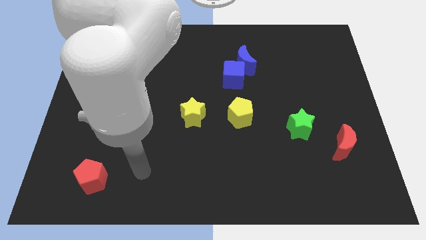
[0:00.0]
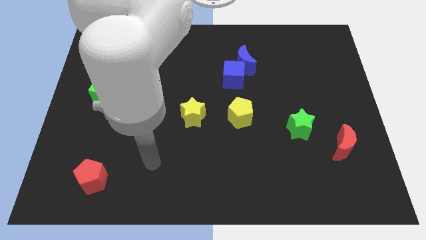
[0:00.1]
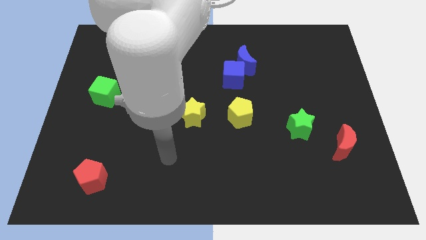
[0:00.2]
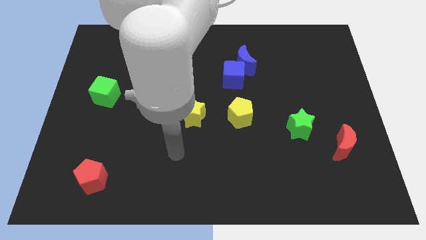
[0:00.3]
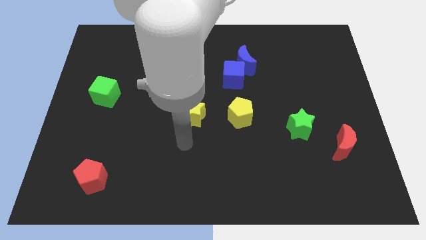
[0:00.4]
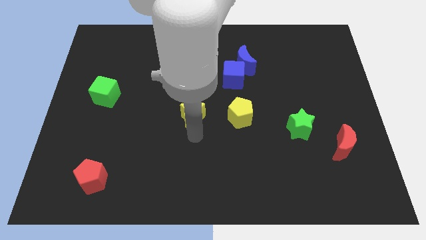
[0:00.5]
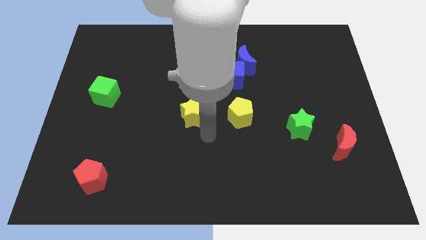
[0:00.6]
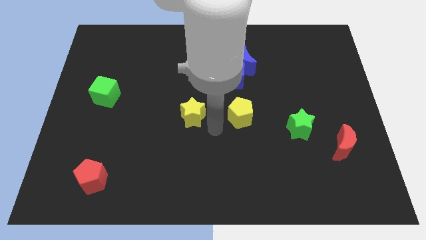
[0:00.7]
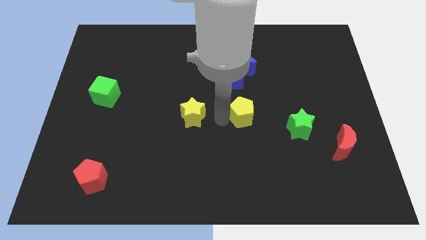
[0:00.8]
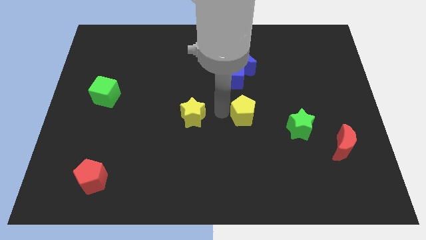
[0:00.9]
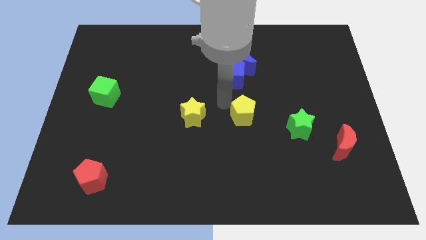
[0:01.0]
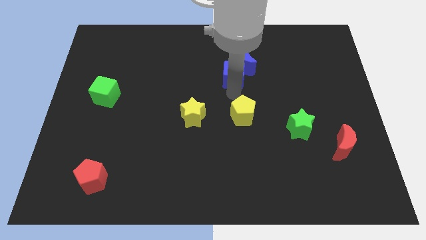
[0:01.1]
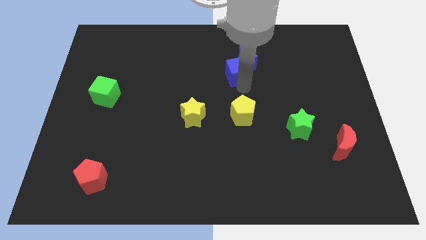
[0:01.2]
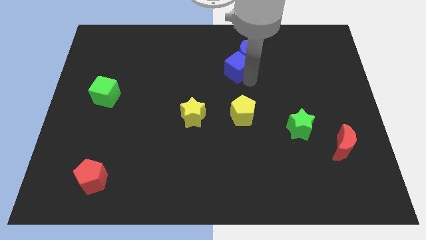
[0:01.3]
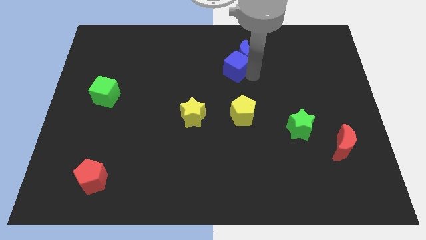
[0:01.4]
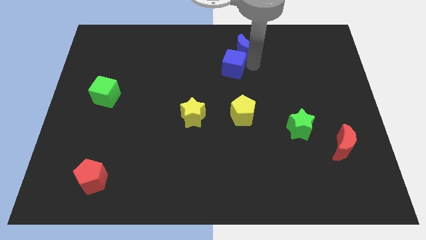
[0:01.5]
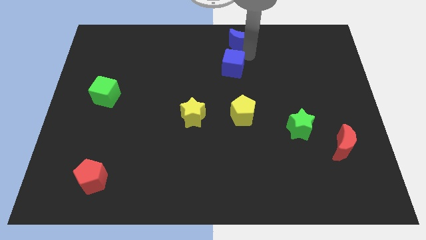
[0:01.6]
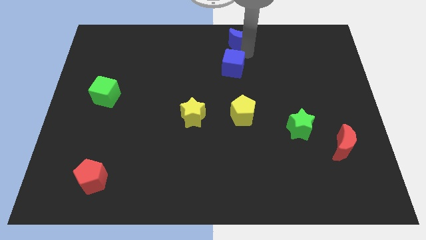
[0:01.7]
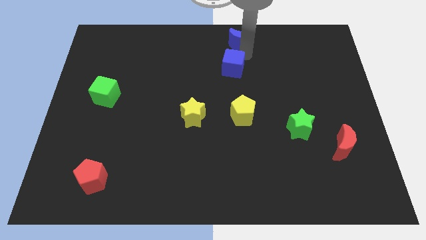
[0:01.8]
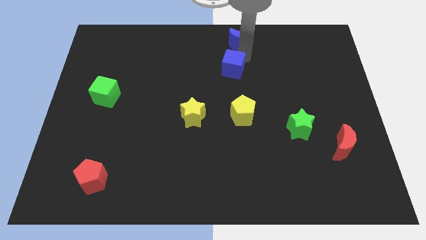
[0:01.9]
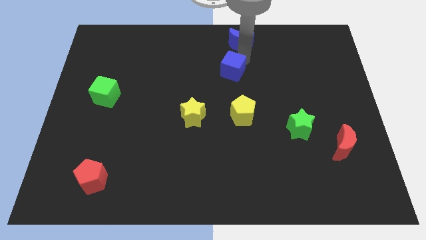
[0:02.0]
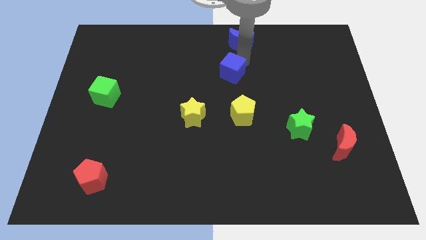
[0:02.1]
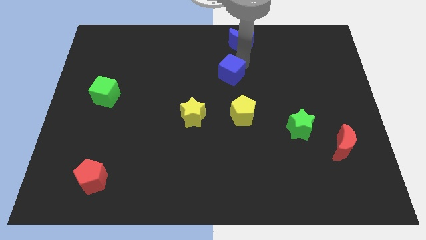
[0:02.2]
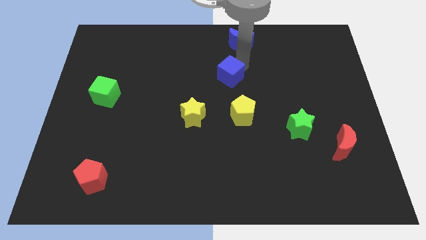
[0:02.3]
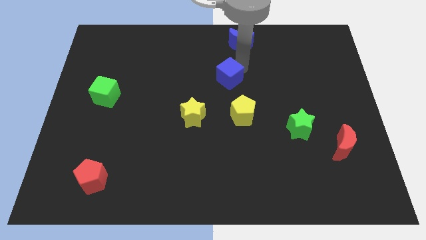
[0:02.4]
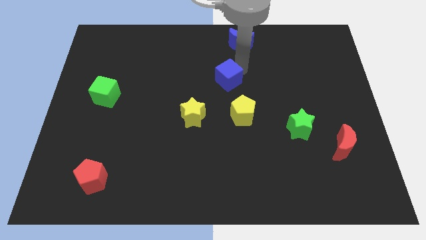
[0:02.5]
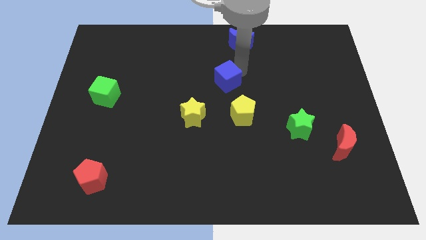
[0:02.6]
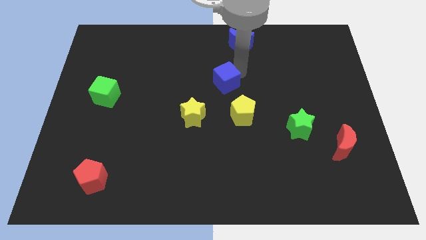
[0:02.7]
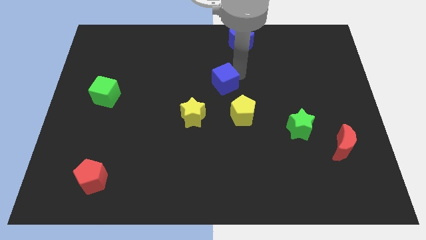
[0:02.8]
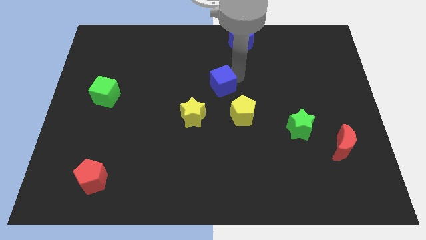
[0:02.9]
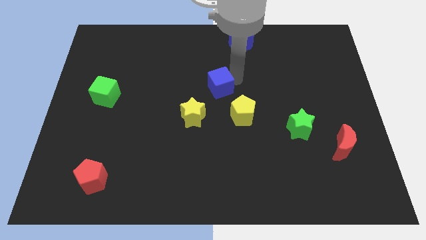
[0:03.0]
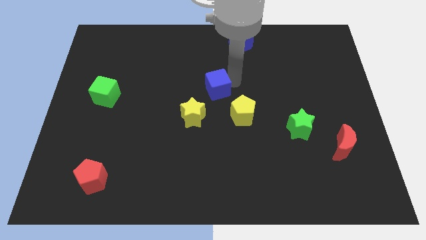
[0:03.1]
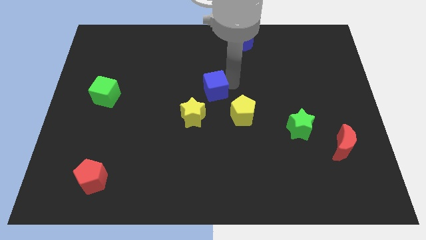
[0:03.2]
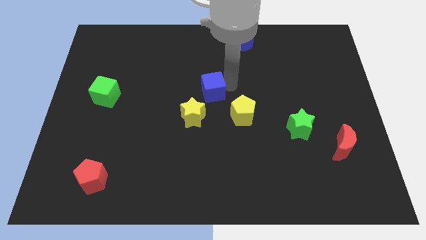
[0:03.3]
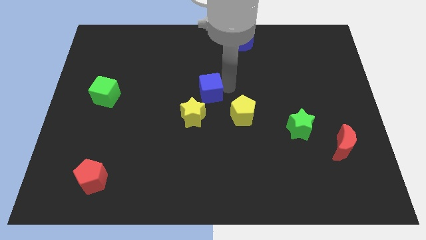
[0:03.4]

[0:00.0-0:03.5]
push the blue cube slightly downwards and left

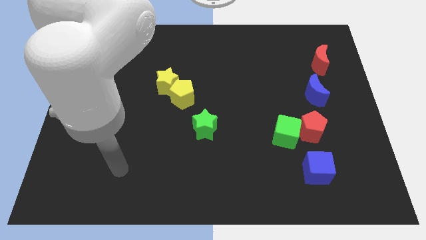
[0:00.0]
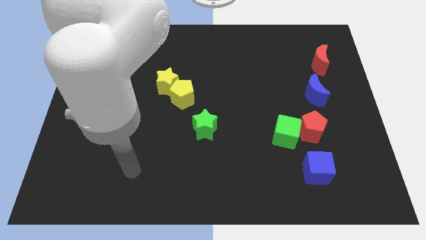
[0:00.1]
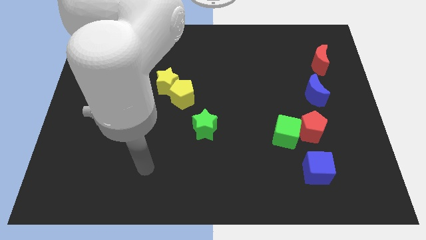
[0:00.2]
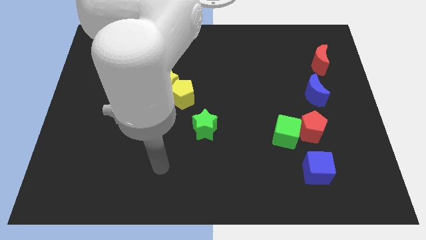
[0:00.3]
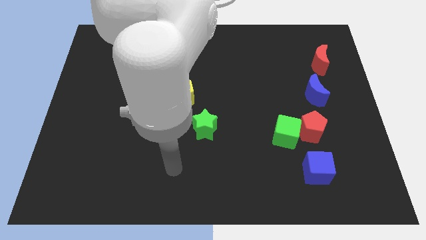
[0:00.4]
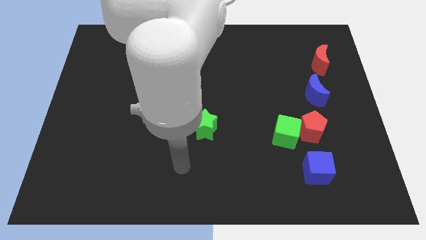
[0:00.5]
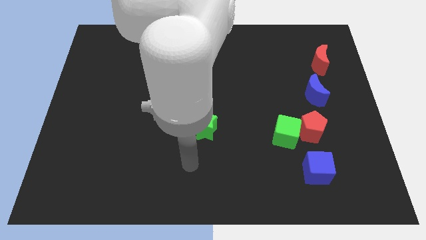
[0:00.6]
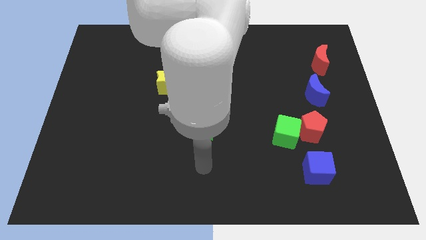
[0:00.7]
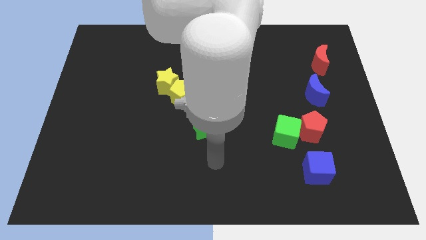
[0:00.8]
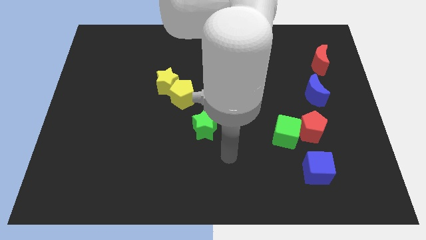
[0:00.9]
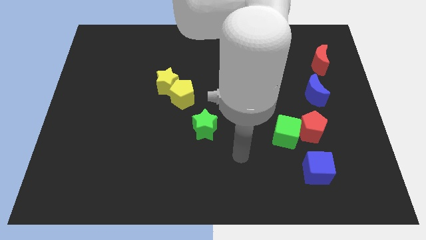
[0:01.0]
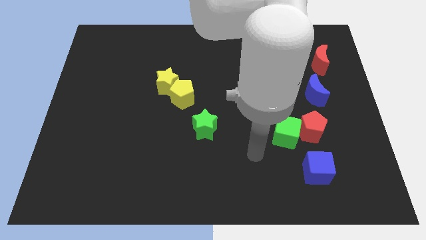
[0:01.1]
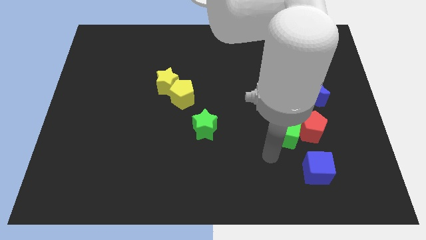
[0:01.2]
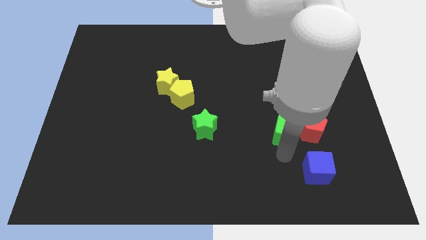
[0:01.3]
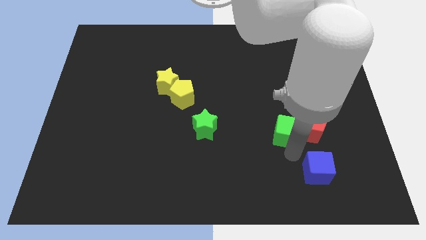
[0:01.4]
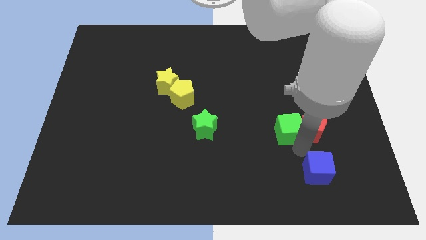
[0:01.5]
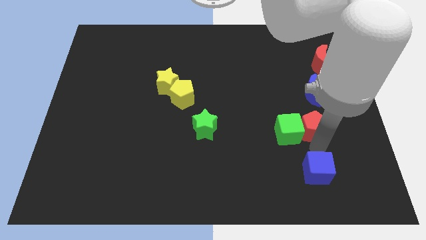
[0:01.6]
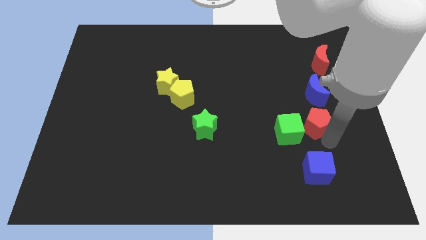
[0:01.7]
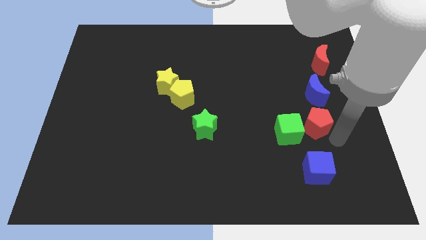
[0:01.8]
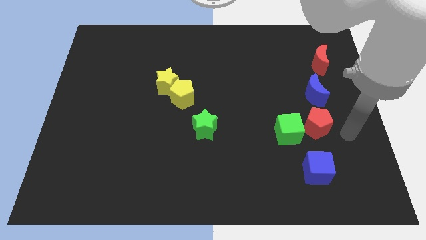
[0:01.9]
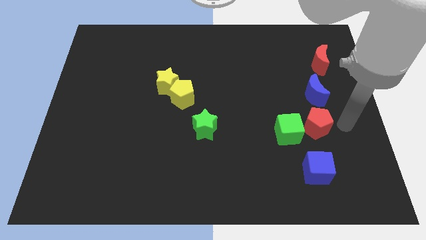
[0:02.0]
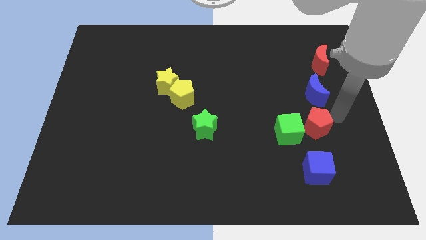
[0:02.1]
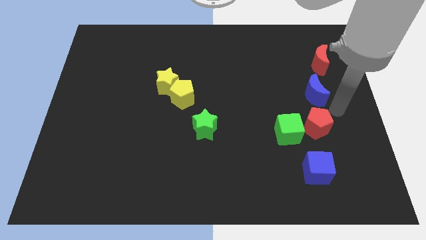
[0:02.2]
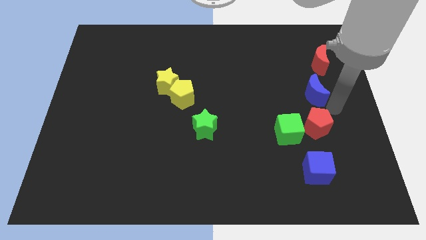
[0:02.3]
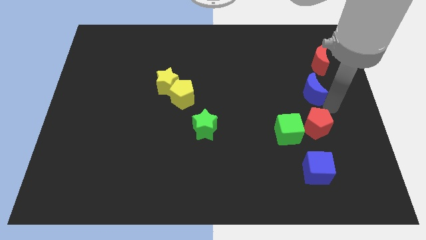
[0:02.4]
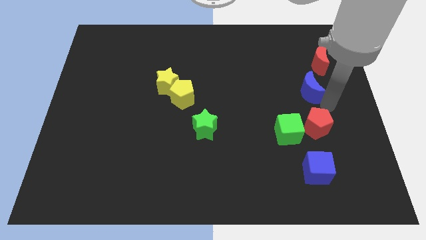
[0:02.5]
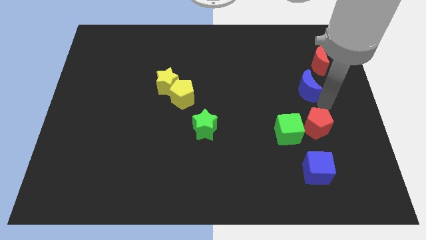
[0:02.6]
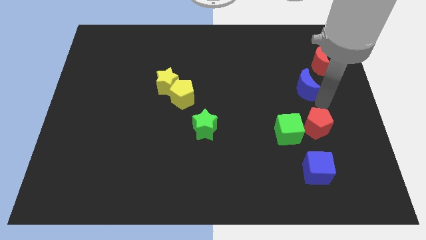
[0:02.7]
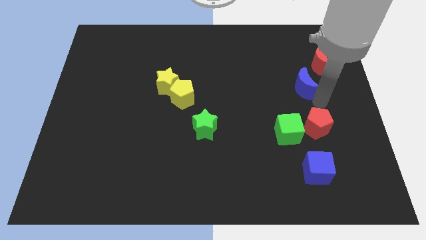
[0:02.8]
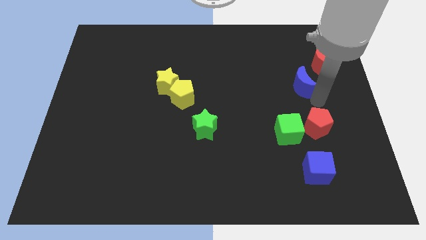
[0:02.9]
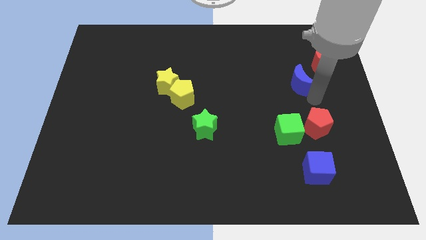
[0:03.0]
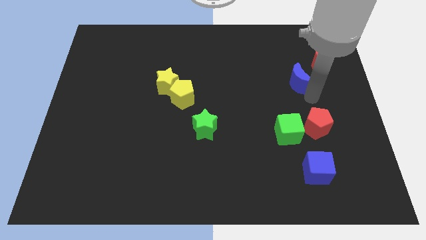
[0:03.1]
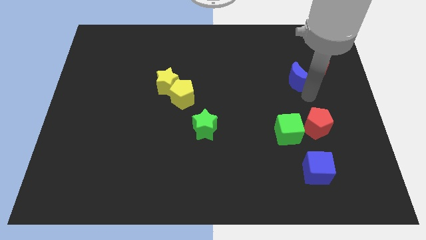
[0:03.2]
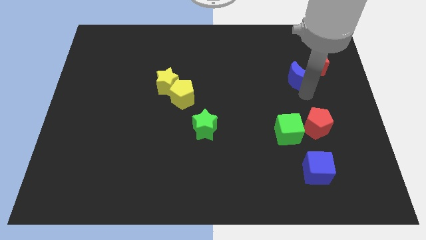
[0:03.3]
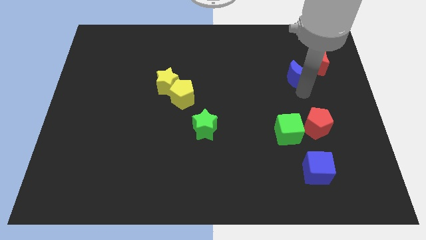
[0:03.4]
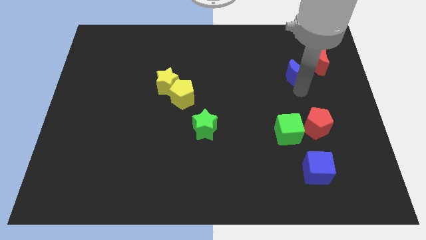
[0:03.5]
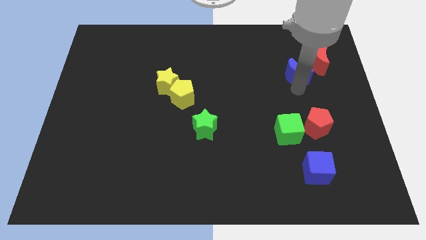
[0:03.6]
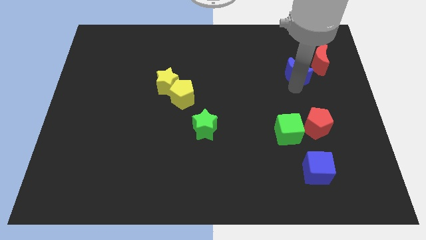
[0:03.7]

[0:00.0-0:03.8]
slightly slide the blue moon upwards and to the left diagonally

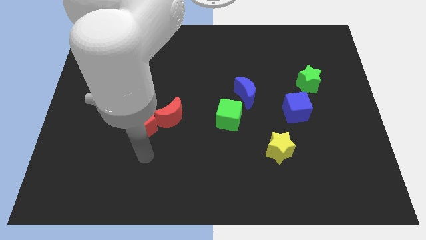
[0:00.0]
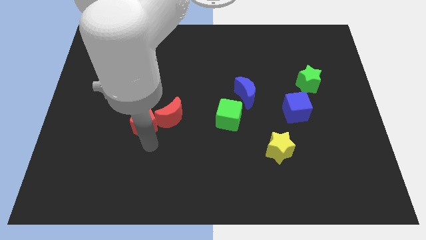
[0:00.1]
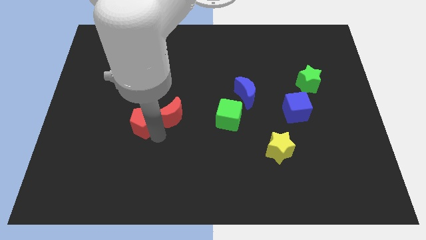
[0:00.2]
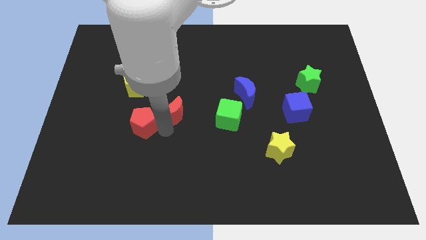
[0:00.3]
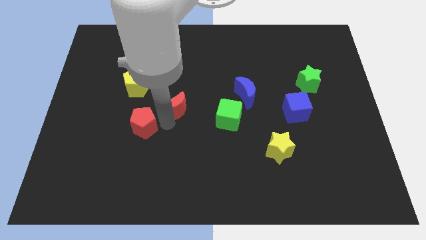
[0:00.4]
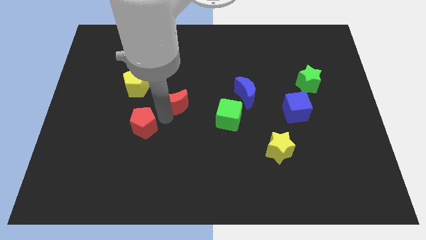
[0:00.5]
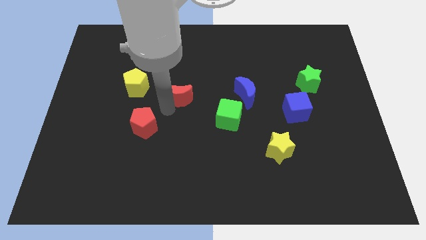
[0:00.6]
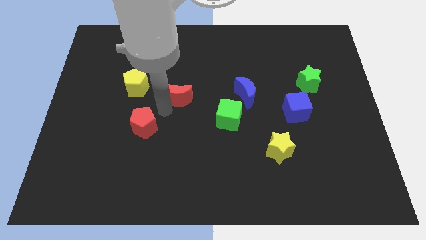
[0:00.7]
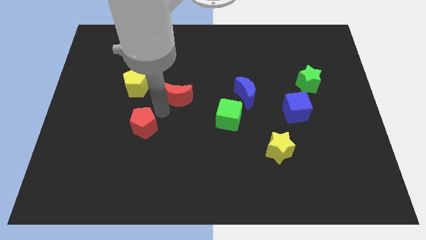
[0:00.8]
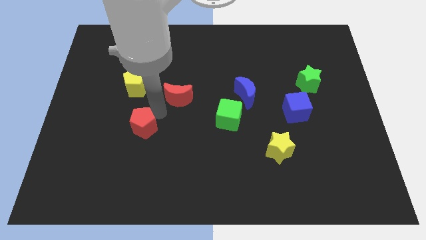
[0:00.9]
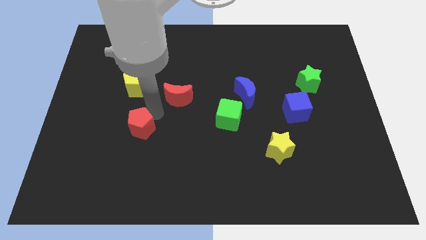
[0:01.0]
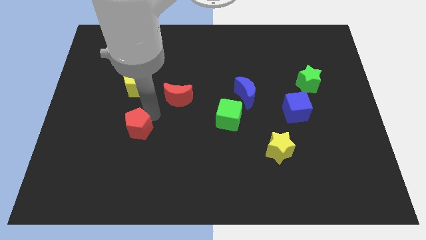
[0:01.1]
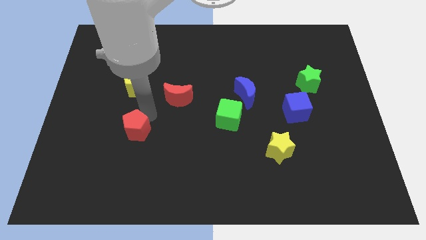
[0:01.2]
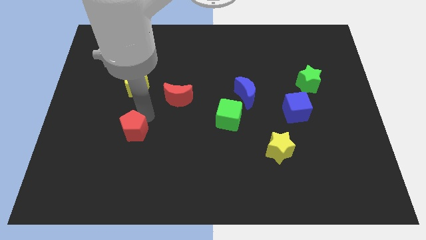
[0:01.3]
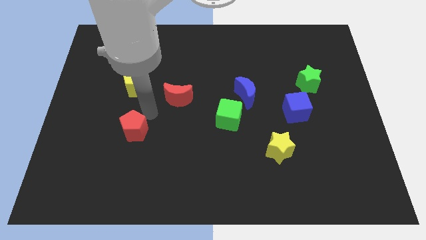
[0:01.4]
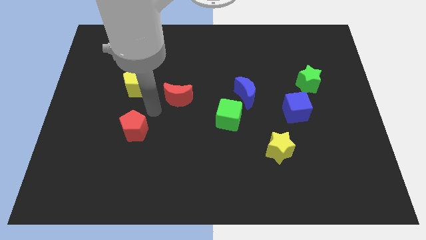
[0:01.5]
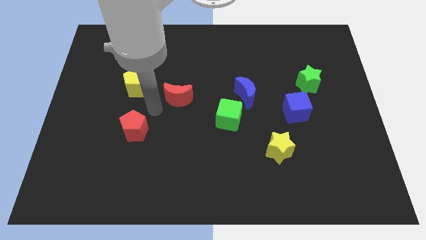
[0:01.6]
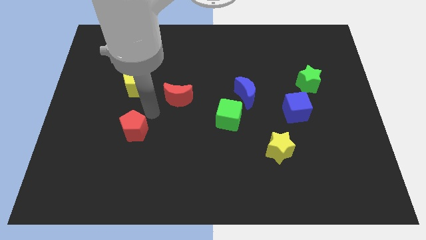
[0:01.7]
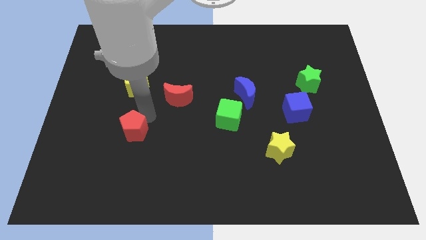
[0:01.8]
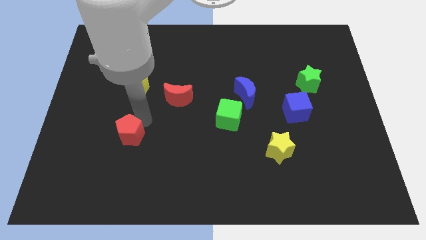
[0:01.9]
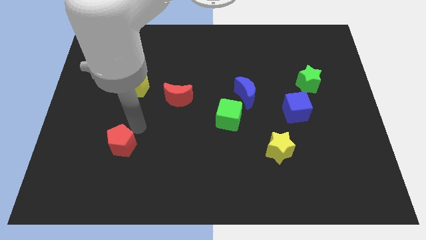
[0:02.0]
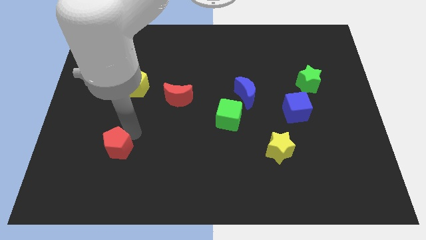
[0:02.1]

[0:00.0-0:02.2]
move the red pentagon a little downwards and left diagonally
